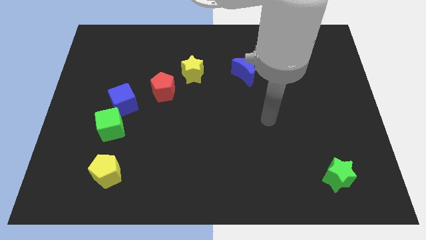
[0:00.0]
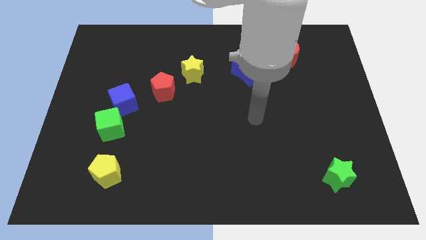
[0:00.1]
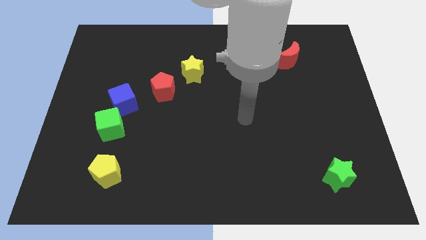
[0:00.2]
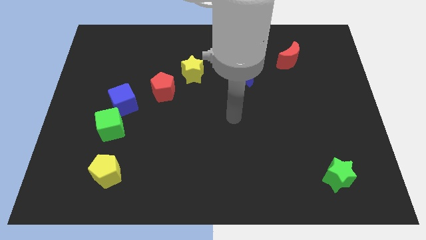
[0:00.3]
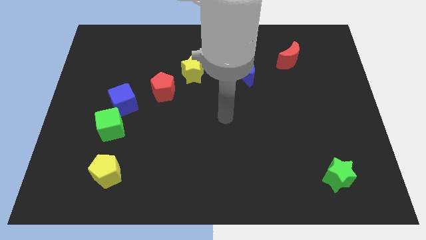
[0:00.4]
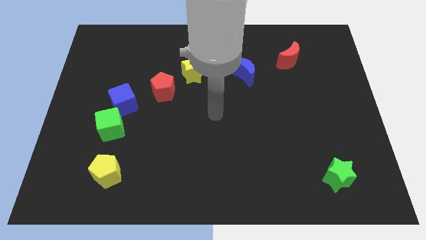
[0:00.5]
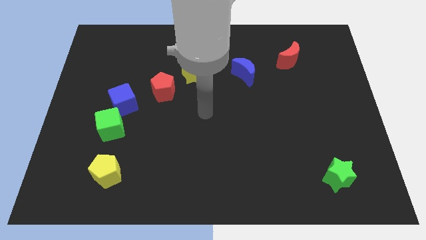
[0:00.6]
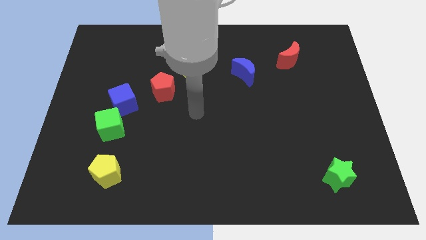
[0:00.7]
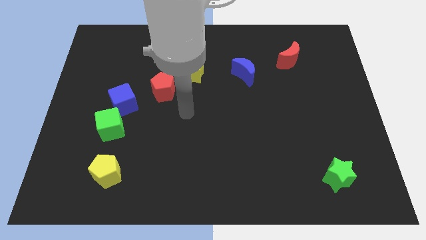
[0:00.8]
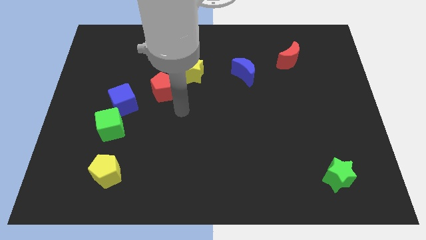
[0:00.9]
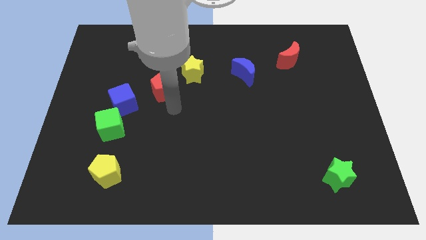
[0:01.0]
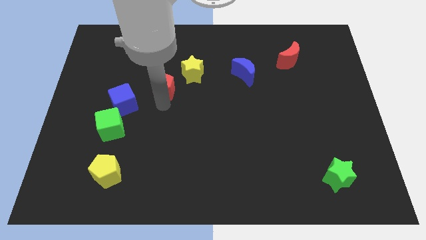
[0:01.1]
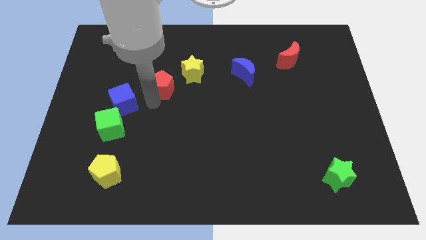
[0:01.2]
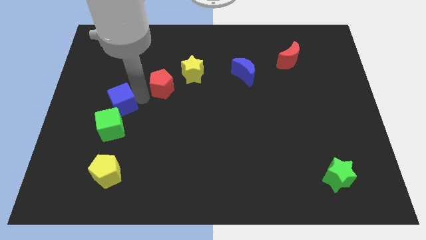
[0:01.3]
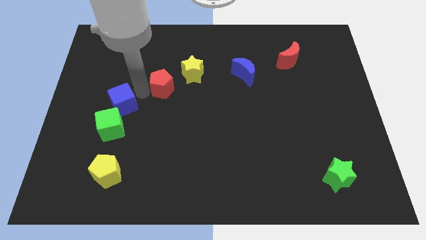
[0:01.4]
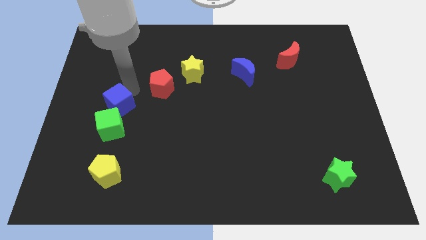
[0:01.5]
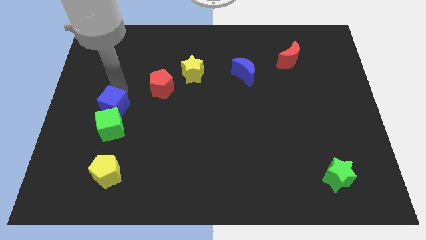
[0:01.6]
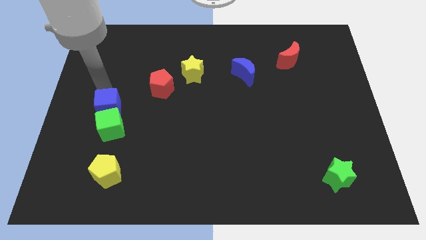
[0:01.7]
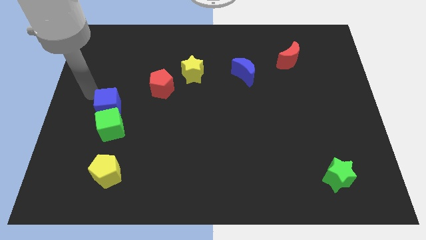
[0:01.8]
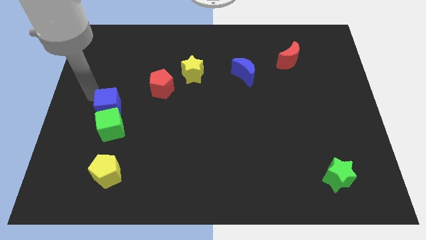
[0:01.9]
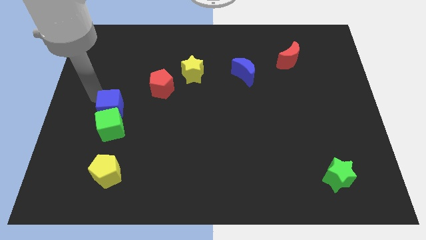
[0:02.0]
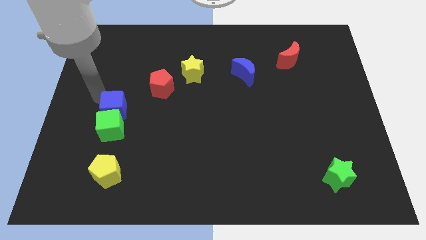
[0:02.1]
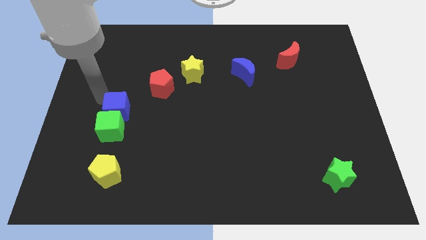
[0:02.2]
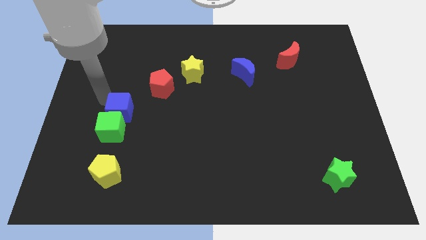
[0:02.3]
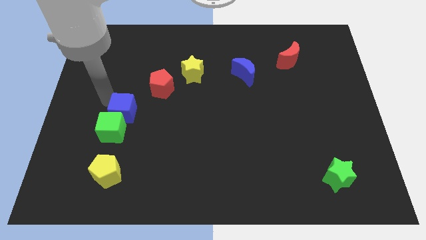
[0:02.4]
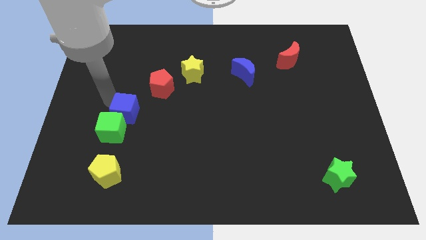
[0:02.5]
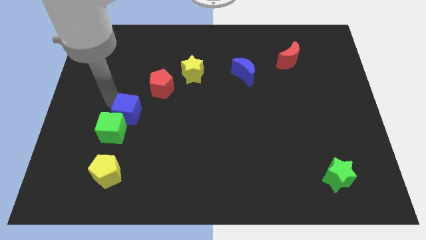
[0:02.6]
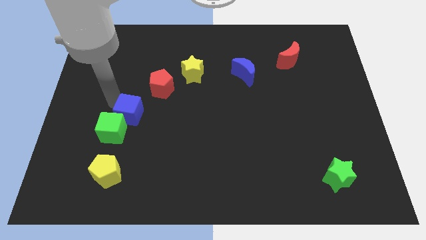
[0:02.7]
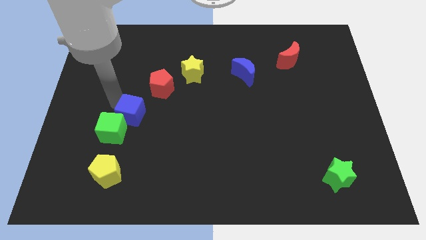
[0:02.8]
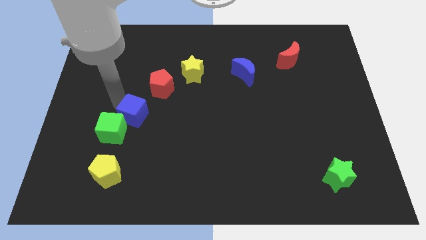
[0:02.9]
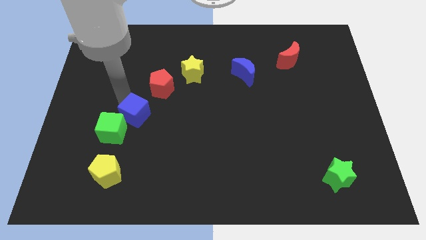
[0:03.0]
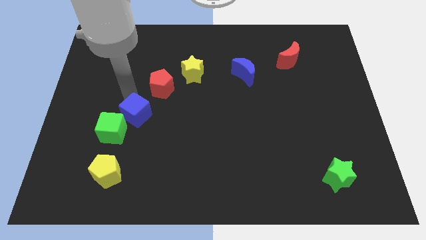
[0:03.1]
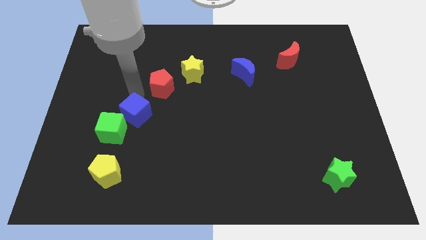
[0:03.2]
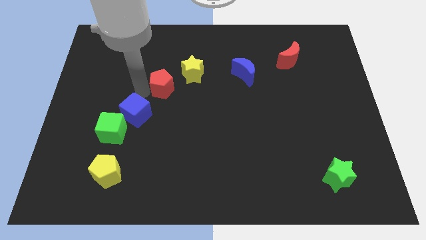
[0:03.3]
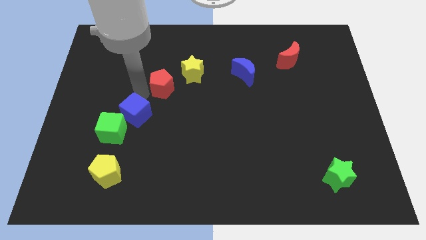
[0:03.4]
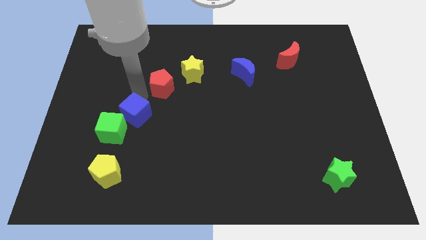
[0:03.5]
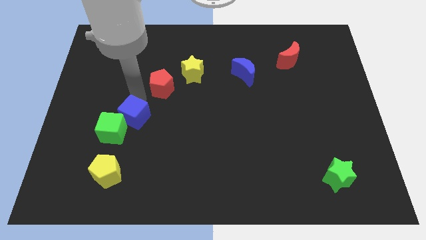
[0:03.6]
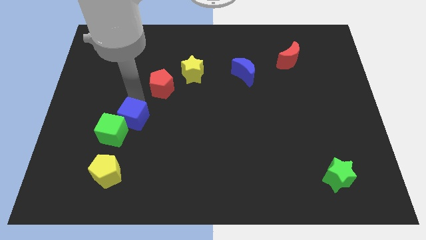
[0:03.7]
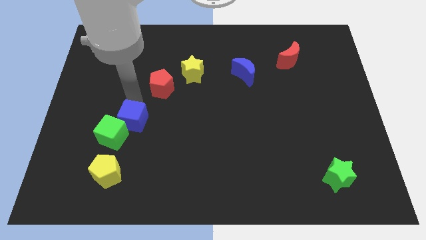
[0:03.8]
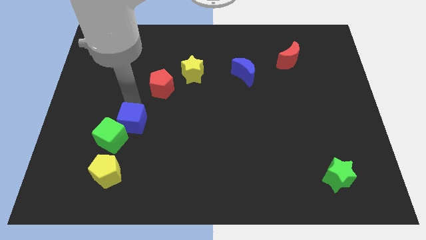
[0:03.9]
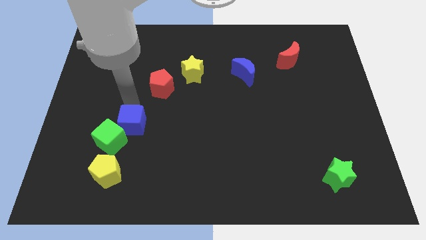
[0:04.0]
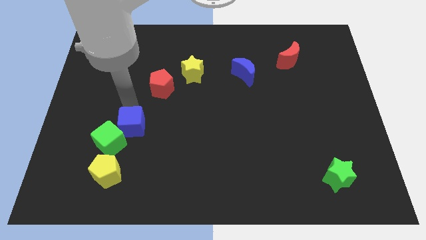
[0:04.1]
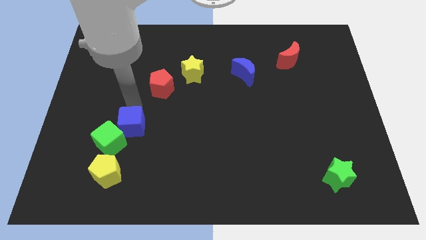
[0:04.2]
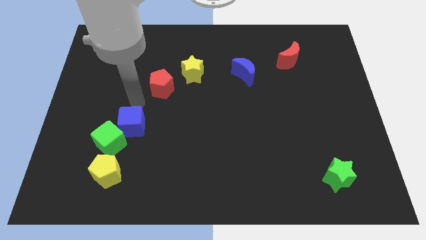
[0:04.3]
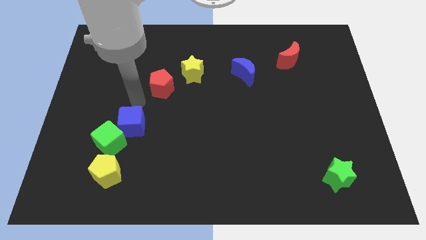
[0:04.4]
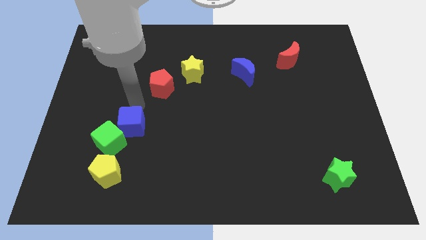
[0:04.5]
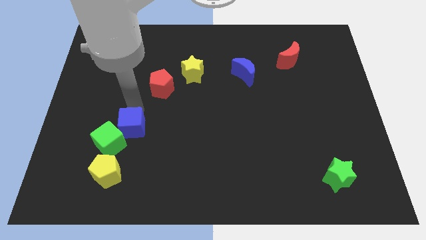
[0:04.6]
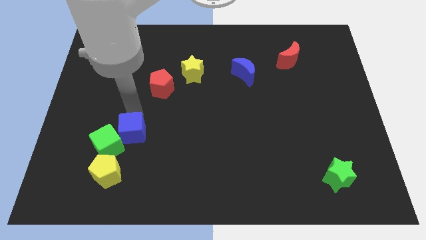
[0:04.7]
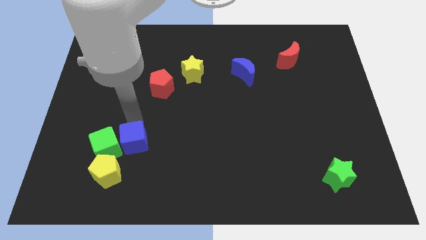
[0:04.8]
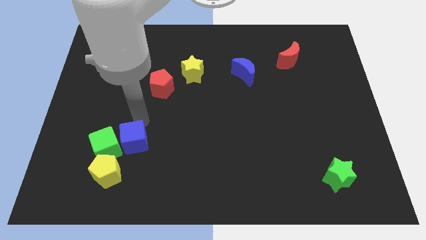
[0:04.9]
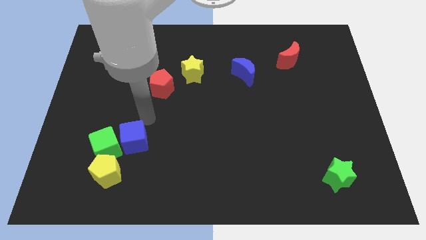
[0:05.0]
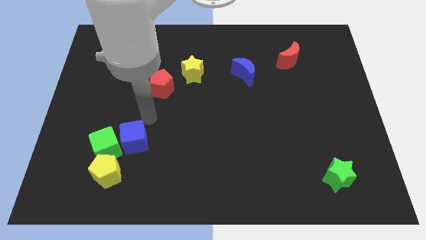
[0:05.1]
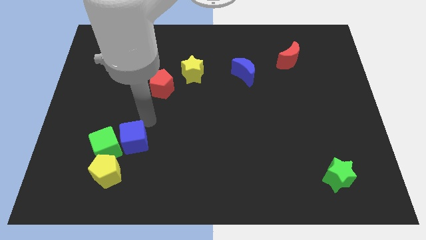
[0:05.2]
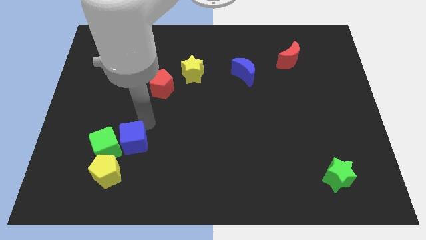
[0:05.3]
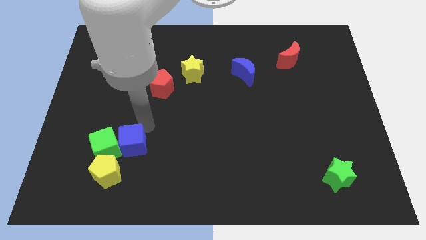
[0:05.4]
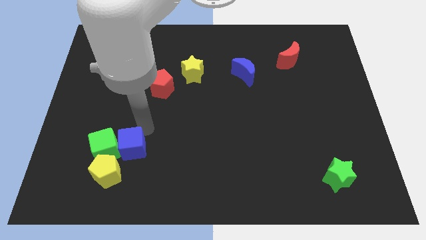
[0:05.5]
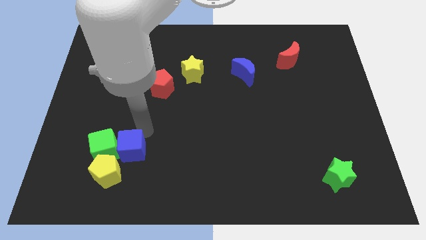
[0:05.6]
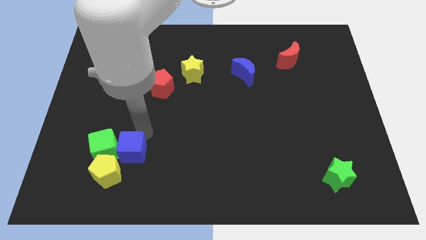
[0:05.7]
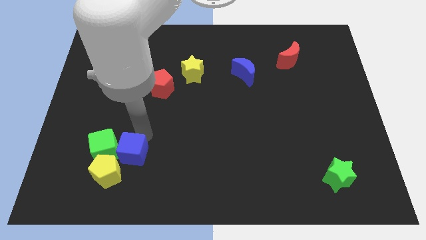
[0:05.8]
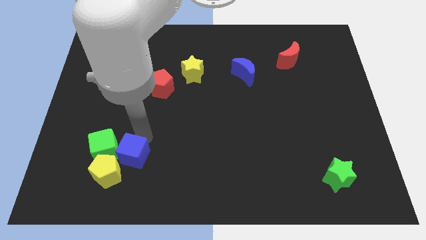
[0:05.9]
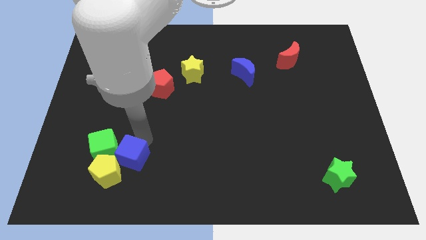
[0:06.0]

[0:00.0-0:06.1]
put the blue cube to the yellow pentagon

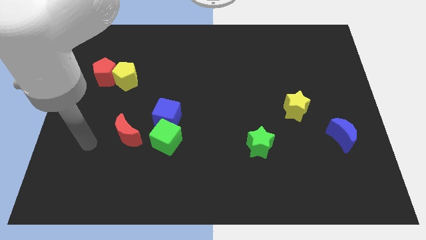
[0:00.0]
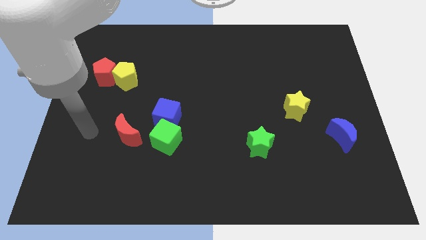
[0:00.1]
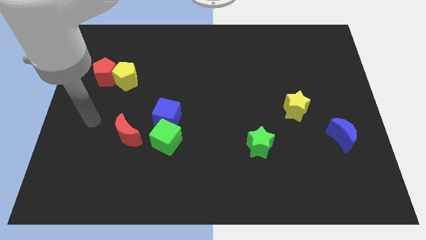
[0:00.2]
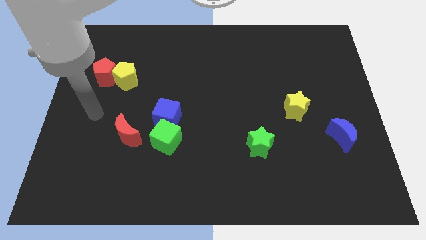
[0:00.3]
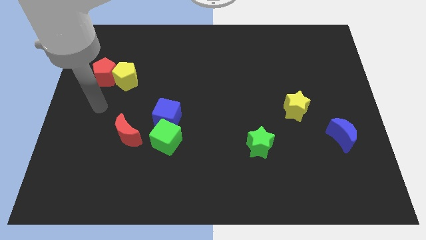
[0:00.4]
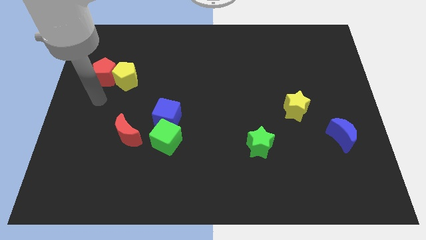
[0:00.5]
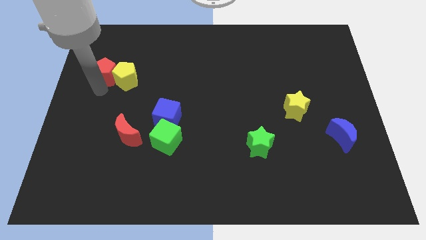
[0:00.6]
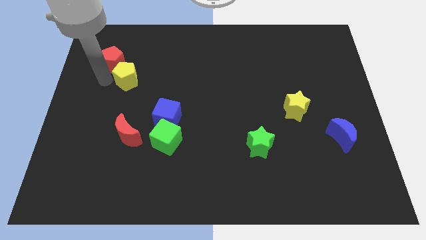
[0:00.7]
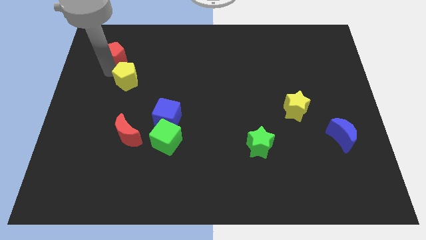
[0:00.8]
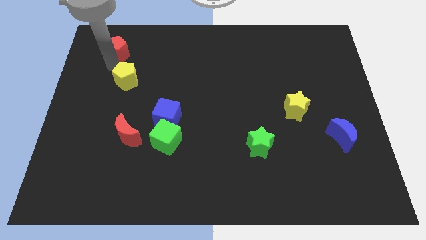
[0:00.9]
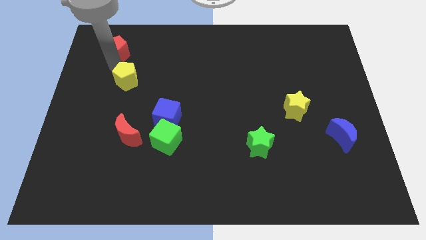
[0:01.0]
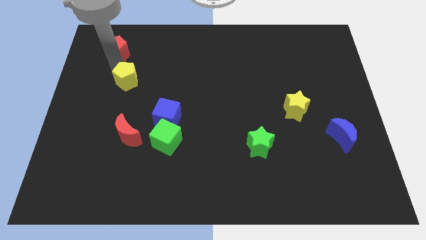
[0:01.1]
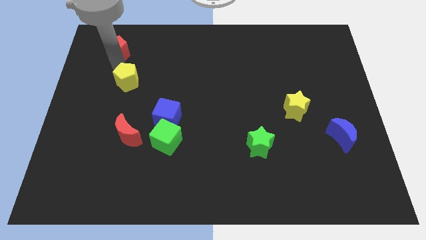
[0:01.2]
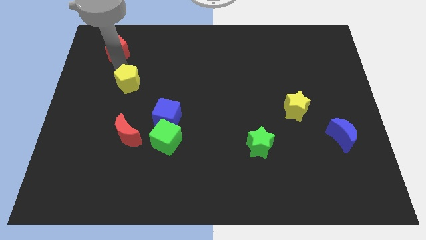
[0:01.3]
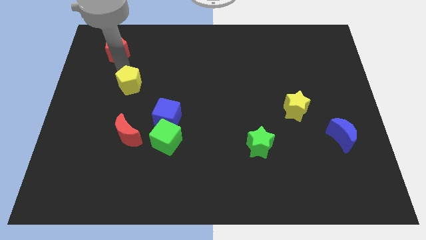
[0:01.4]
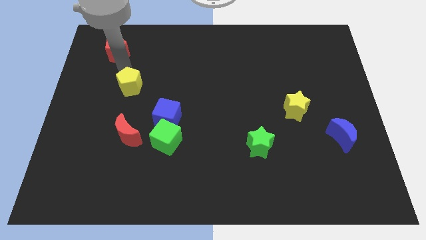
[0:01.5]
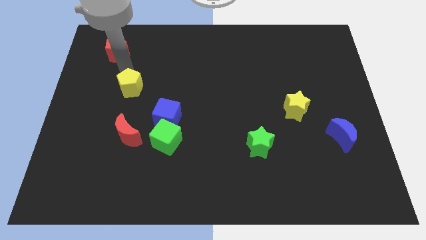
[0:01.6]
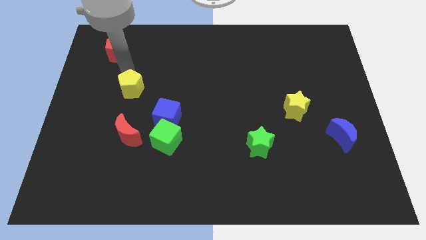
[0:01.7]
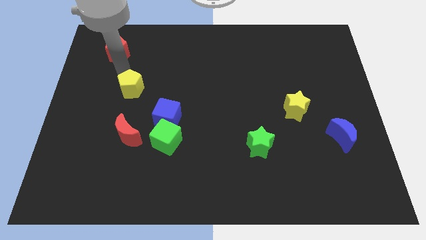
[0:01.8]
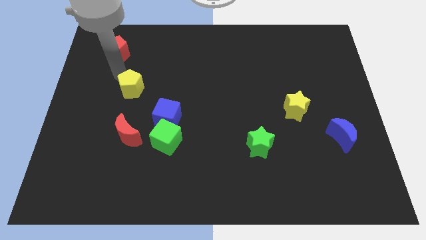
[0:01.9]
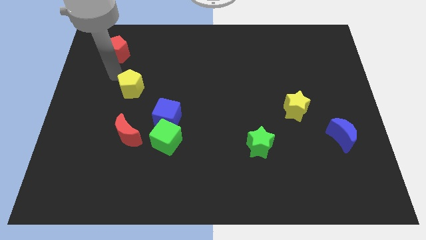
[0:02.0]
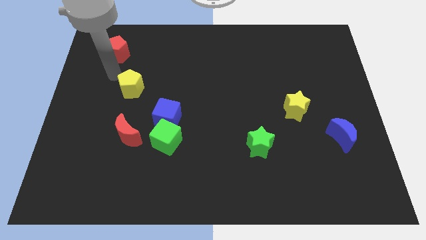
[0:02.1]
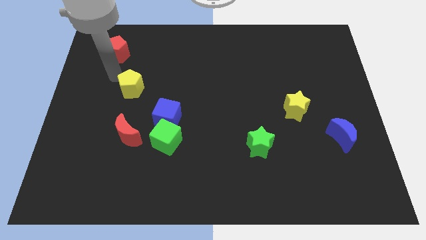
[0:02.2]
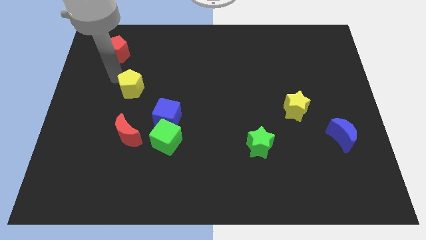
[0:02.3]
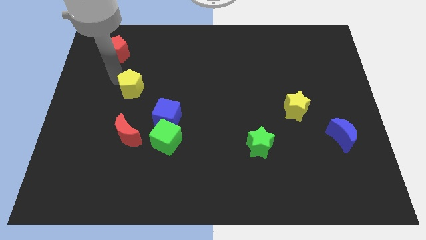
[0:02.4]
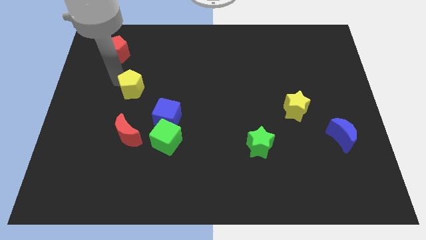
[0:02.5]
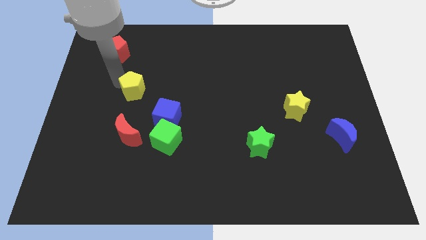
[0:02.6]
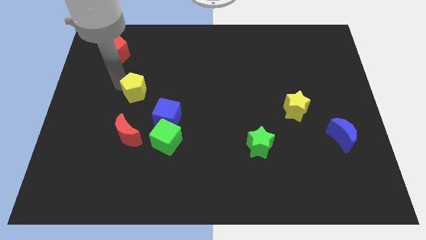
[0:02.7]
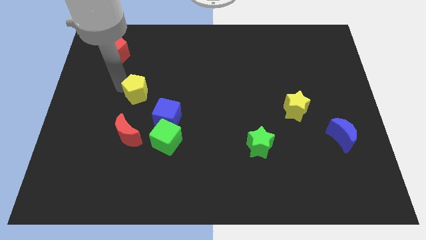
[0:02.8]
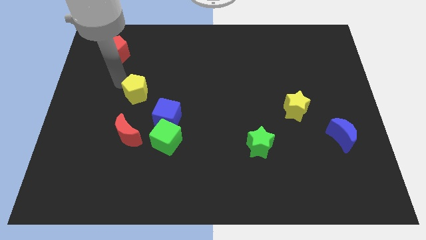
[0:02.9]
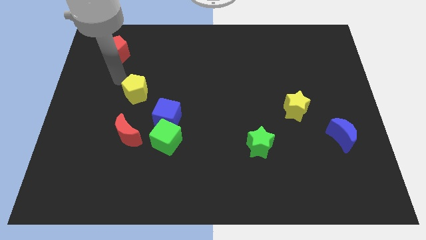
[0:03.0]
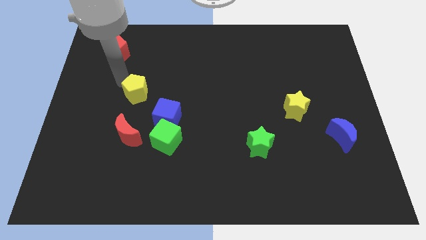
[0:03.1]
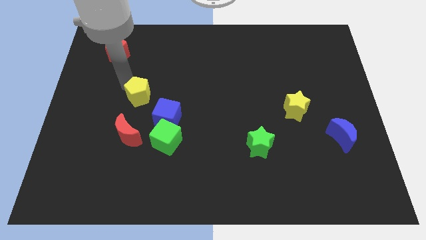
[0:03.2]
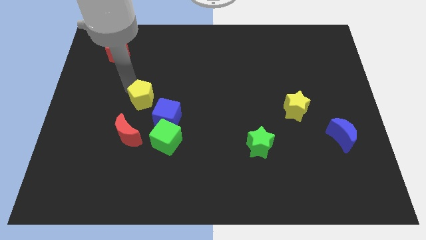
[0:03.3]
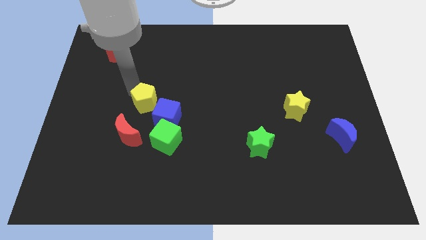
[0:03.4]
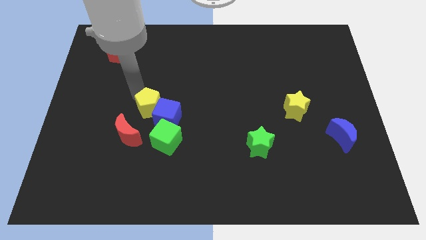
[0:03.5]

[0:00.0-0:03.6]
move the yellow pentagon next to the blue cube
